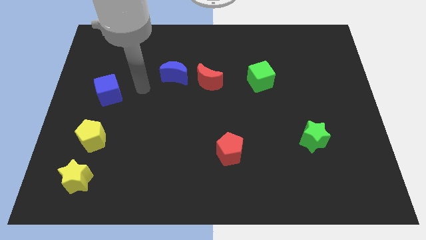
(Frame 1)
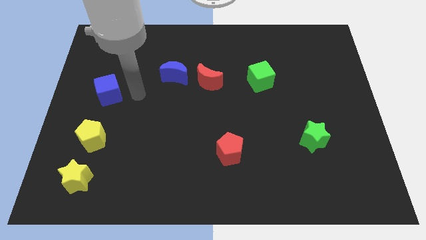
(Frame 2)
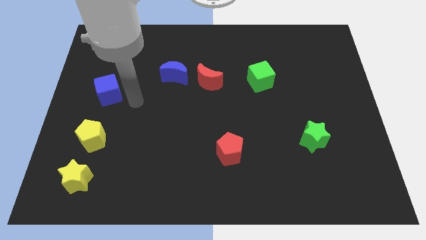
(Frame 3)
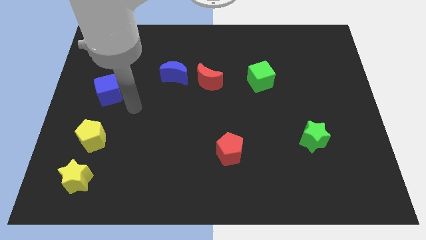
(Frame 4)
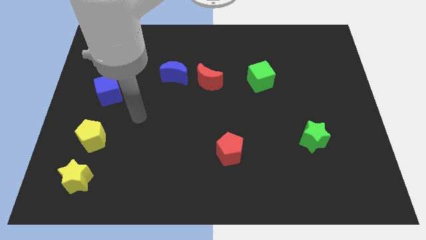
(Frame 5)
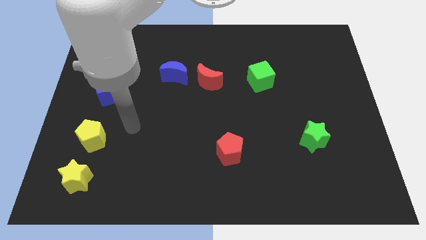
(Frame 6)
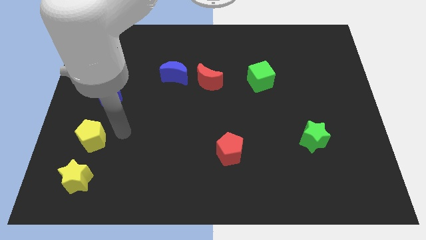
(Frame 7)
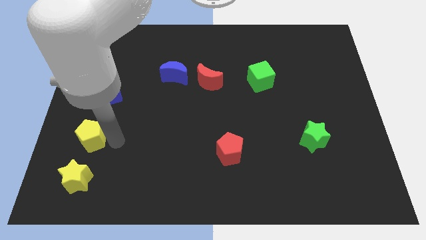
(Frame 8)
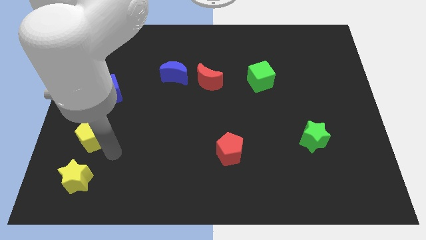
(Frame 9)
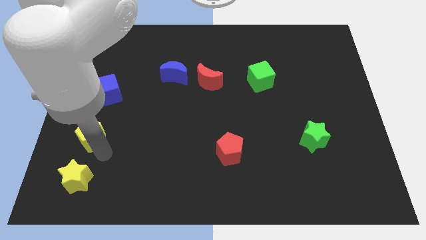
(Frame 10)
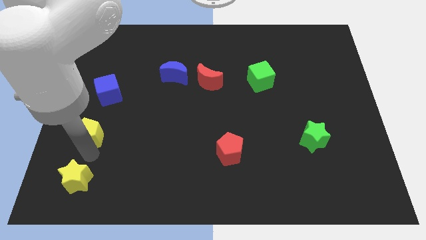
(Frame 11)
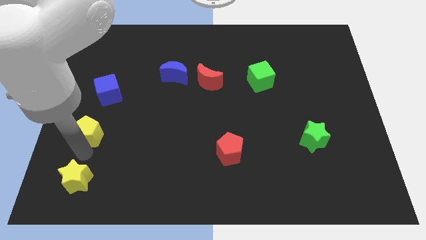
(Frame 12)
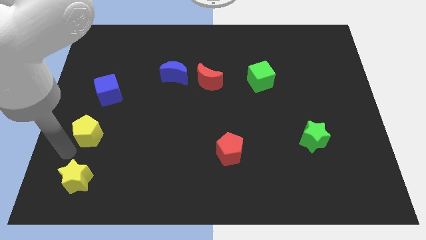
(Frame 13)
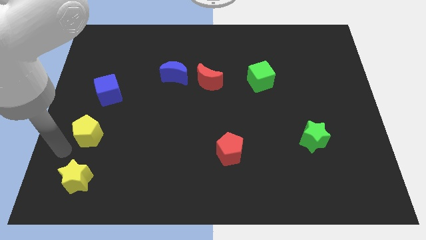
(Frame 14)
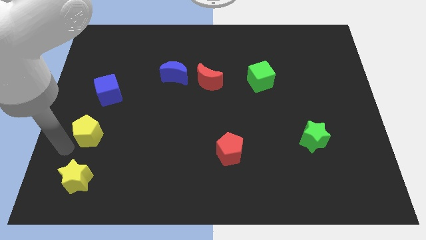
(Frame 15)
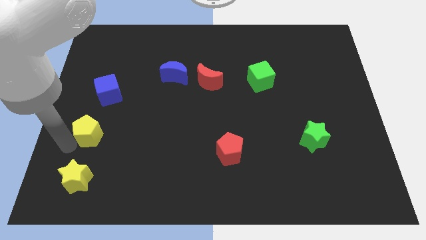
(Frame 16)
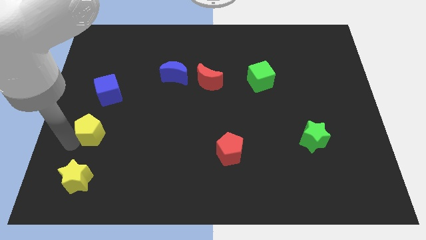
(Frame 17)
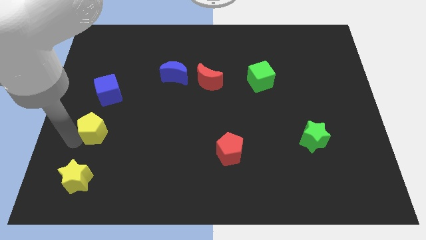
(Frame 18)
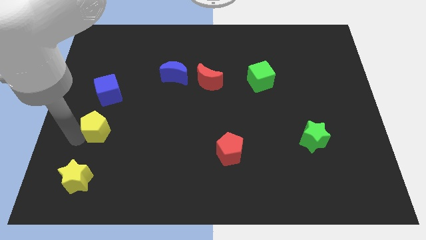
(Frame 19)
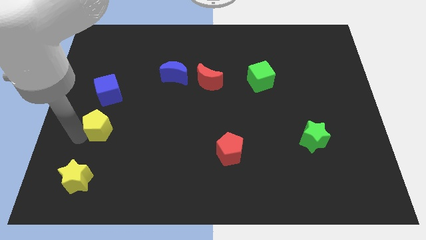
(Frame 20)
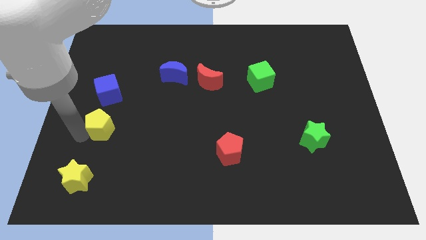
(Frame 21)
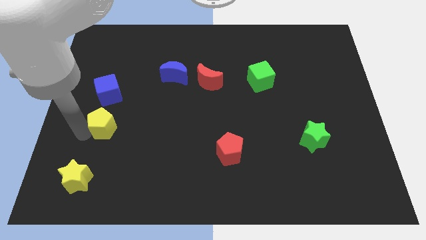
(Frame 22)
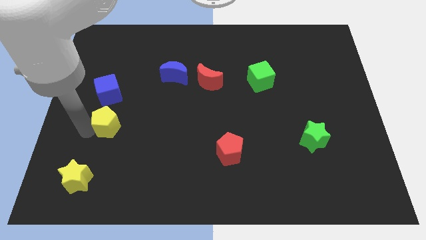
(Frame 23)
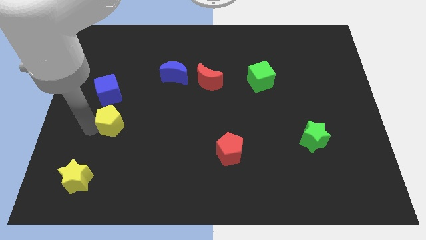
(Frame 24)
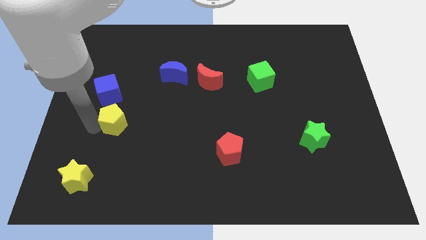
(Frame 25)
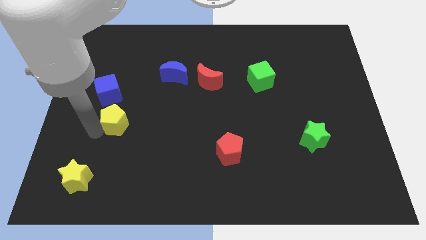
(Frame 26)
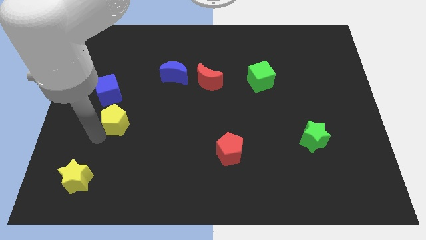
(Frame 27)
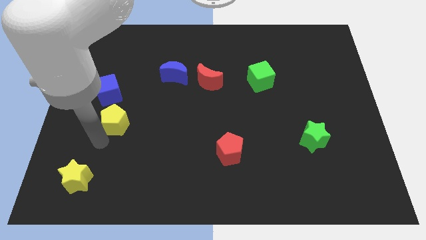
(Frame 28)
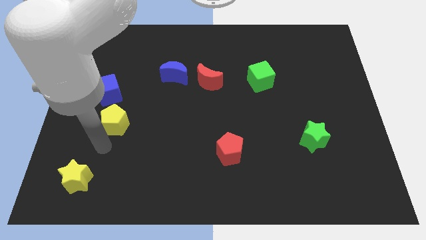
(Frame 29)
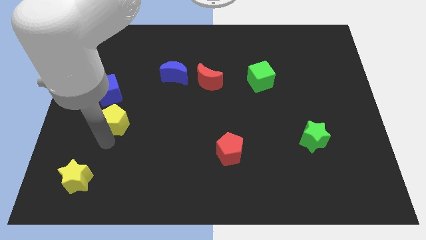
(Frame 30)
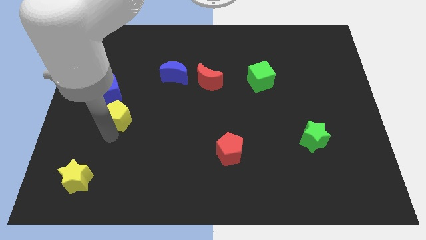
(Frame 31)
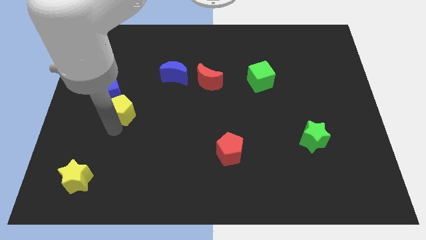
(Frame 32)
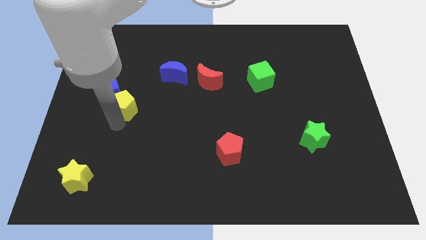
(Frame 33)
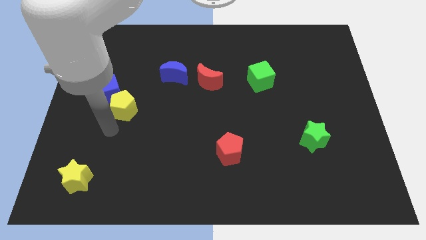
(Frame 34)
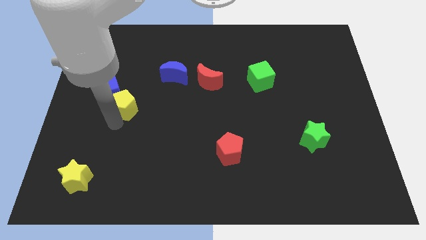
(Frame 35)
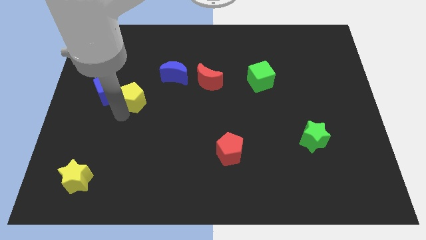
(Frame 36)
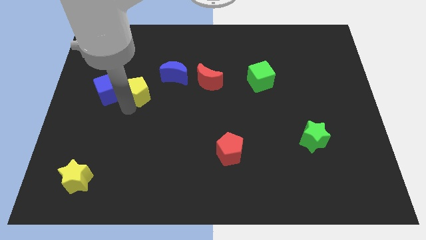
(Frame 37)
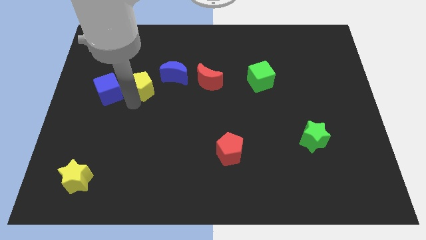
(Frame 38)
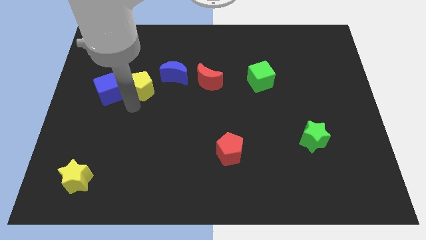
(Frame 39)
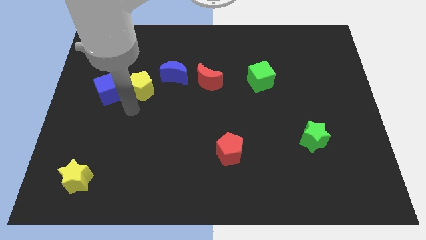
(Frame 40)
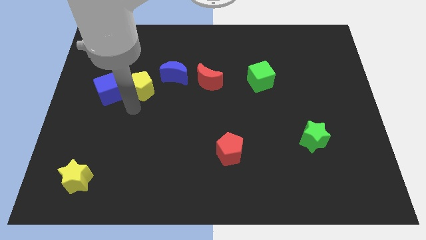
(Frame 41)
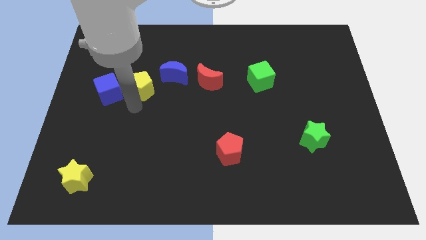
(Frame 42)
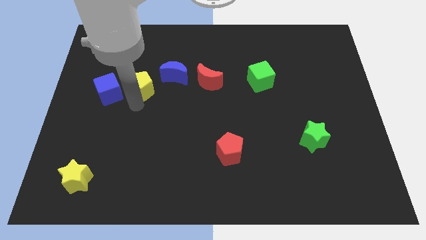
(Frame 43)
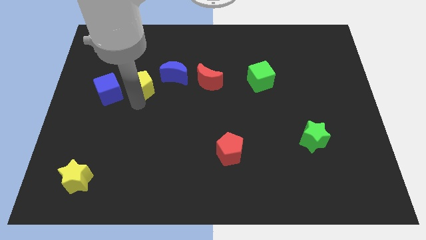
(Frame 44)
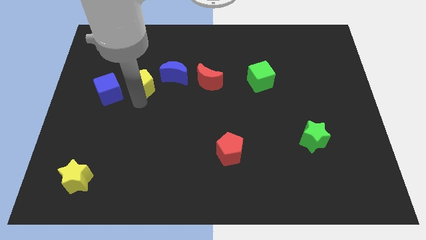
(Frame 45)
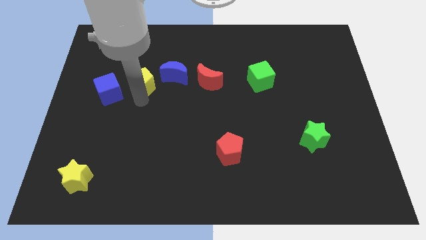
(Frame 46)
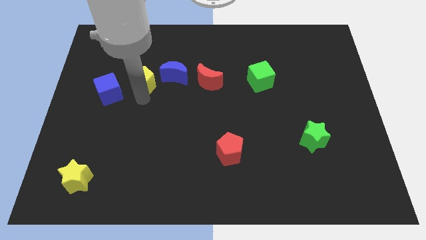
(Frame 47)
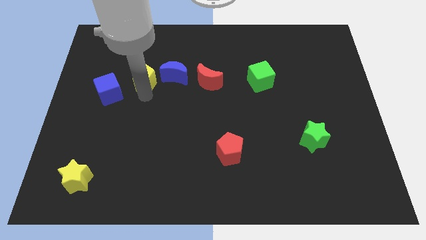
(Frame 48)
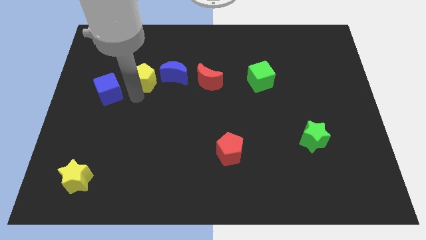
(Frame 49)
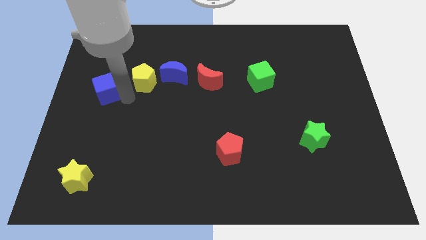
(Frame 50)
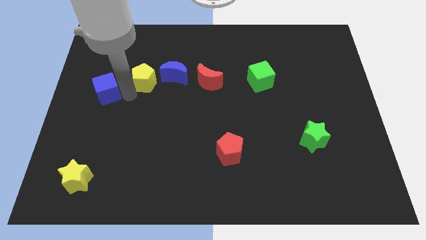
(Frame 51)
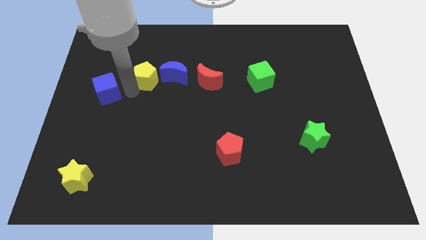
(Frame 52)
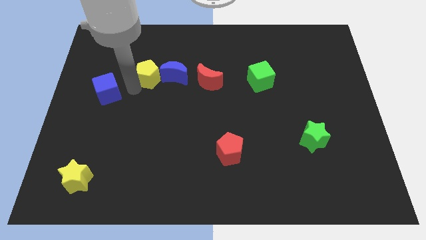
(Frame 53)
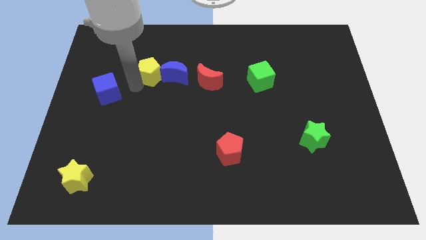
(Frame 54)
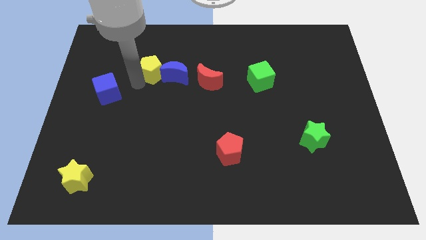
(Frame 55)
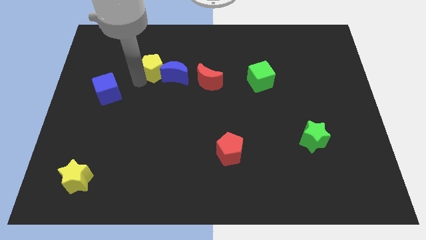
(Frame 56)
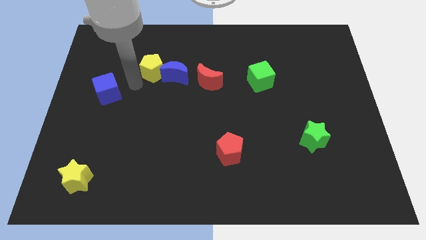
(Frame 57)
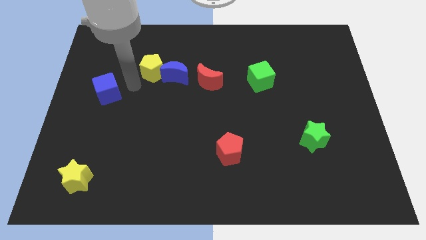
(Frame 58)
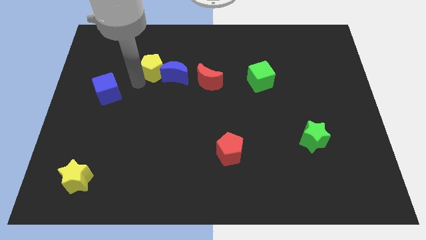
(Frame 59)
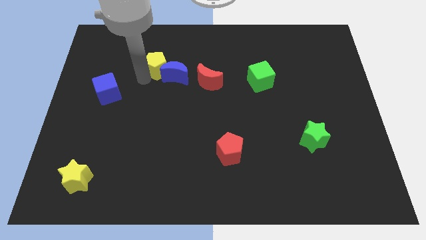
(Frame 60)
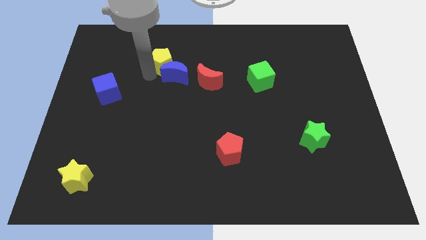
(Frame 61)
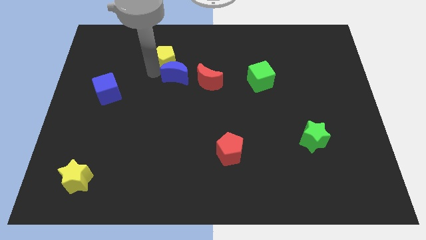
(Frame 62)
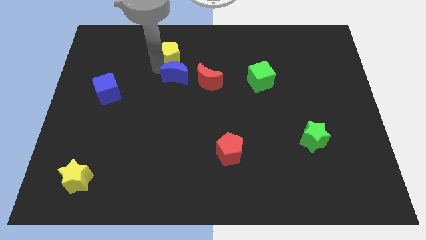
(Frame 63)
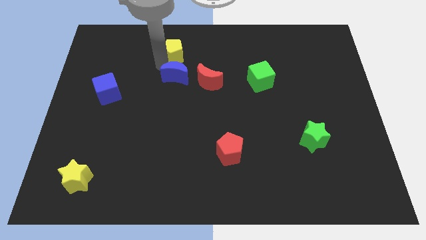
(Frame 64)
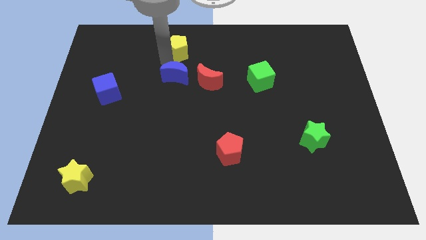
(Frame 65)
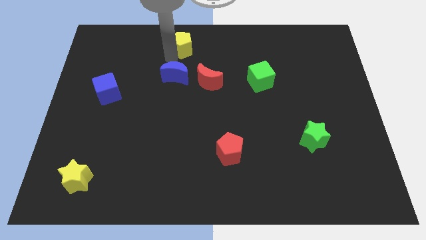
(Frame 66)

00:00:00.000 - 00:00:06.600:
move the yellow pentagon to the towards your base

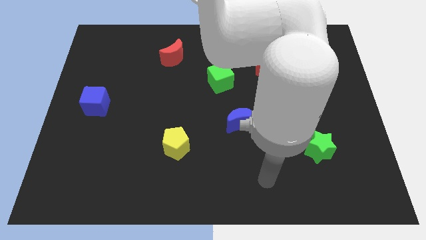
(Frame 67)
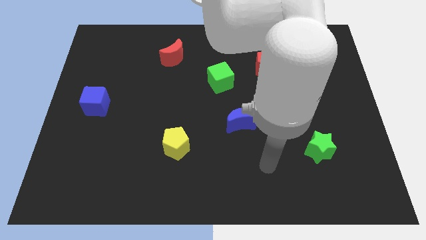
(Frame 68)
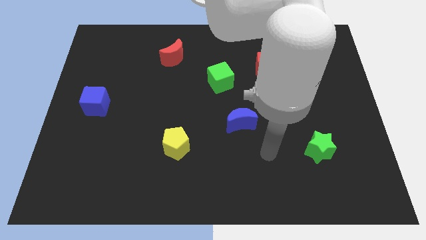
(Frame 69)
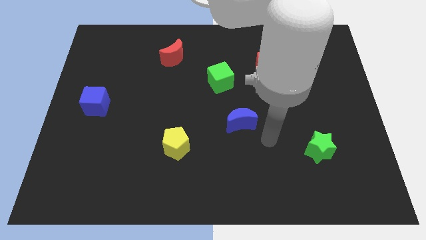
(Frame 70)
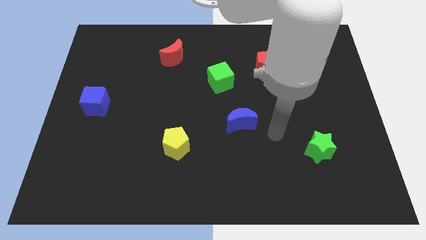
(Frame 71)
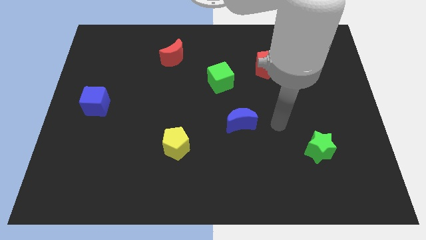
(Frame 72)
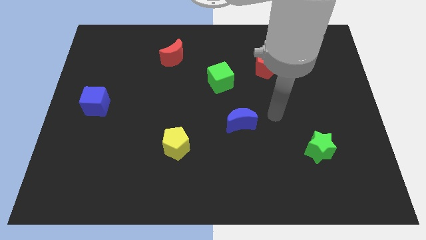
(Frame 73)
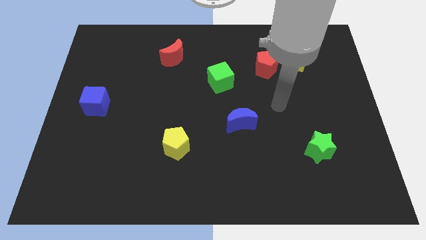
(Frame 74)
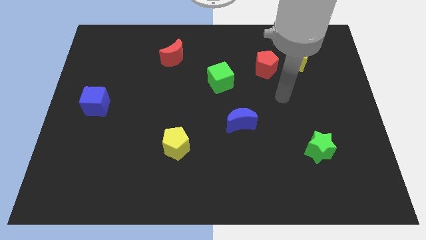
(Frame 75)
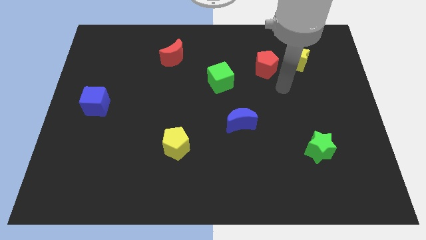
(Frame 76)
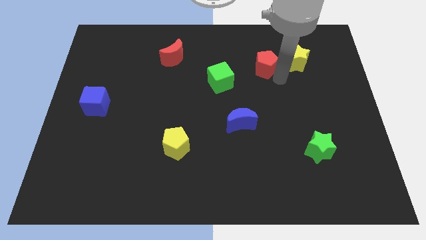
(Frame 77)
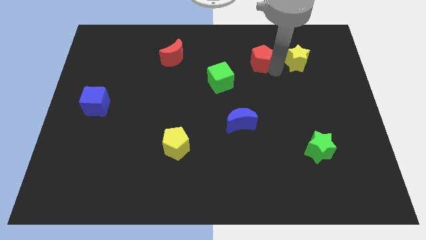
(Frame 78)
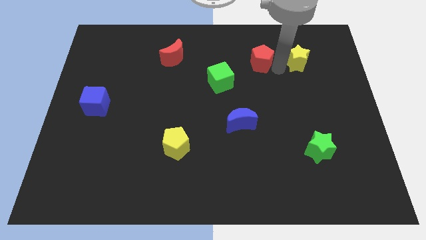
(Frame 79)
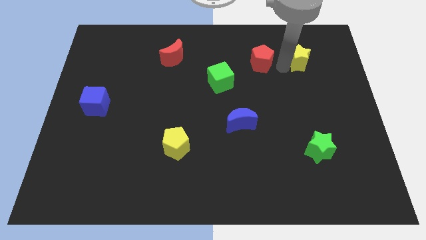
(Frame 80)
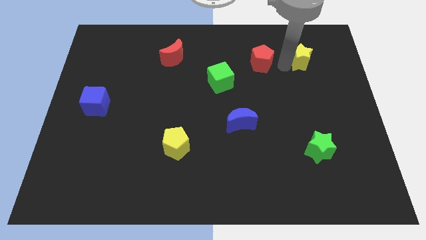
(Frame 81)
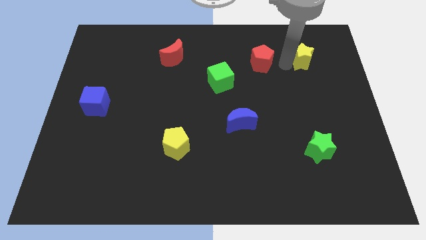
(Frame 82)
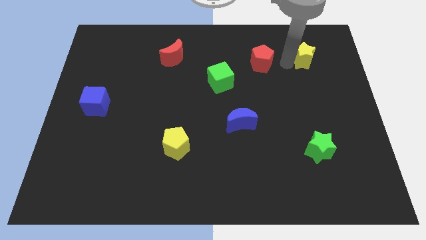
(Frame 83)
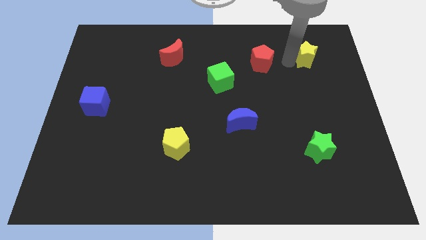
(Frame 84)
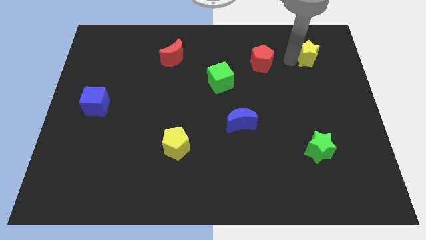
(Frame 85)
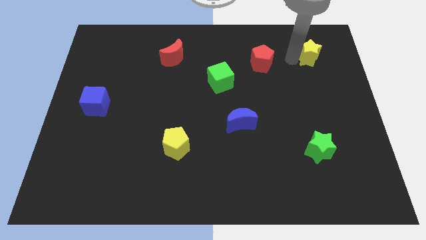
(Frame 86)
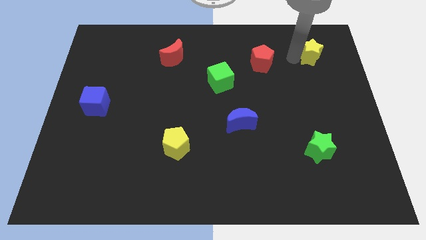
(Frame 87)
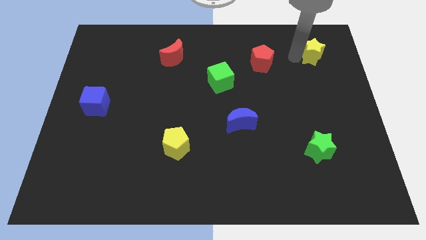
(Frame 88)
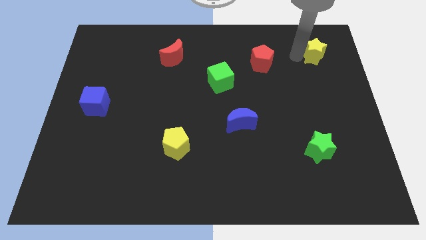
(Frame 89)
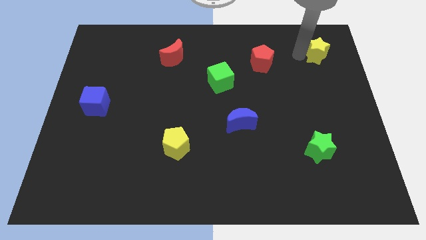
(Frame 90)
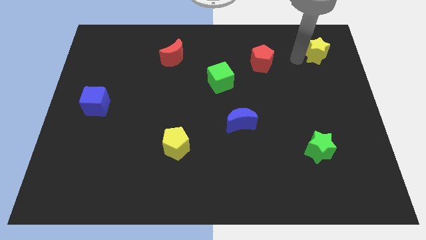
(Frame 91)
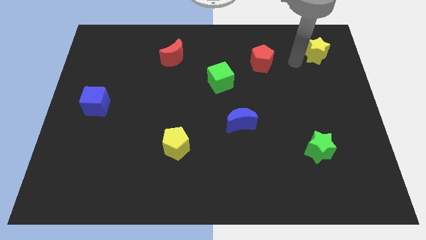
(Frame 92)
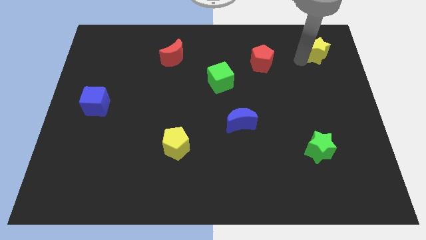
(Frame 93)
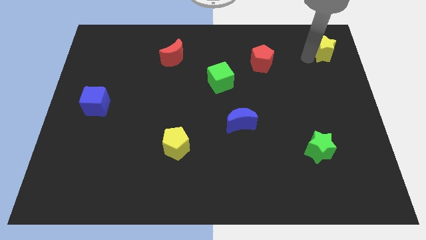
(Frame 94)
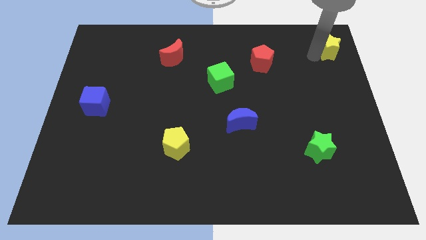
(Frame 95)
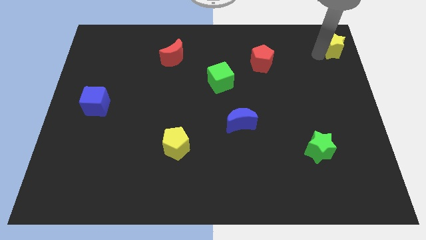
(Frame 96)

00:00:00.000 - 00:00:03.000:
slide the yellow star to the top right corner
